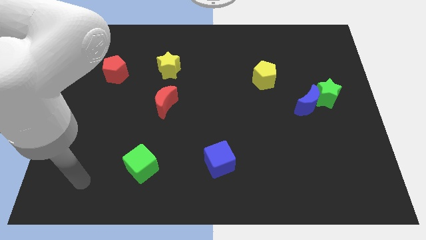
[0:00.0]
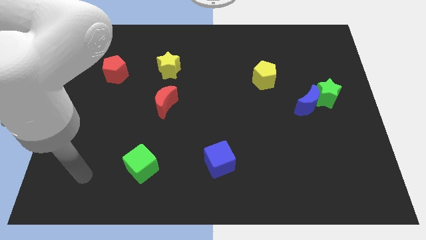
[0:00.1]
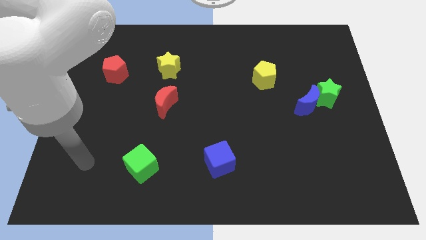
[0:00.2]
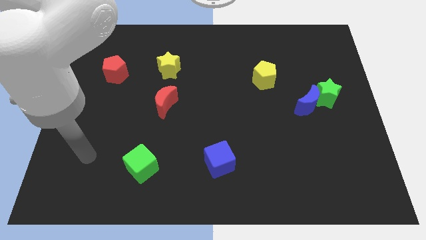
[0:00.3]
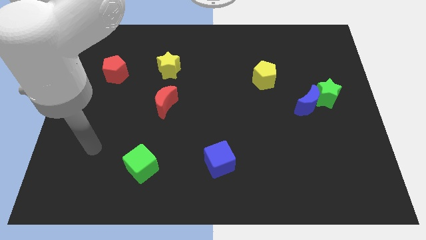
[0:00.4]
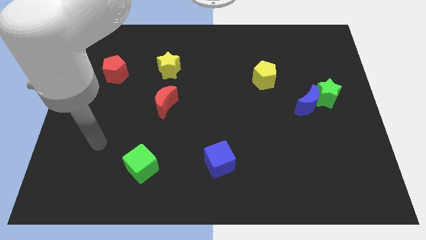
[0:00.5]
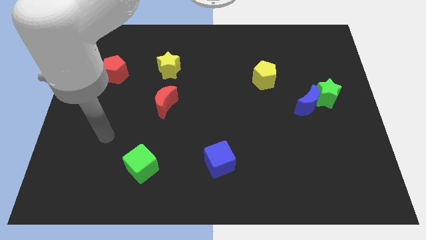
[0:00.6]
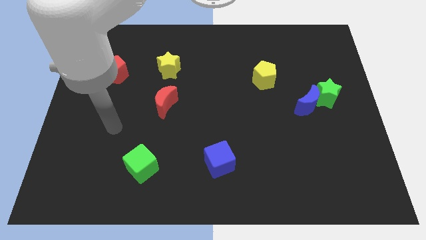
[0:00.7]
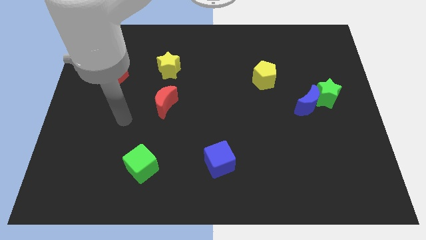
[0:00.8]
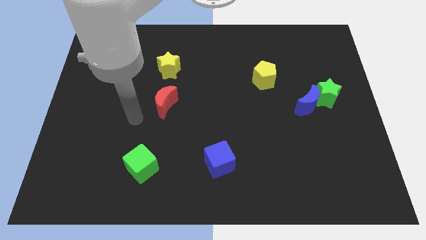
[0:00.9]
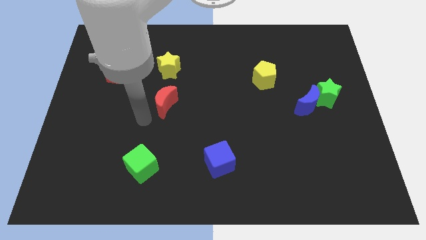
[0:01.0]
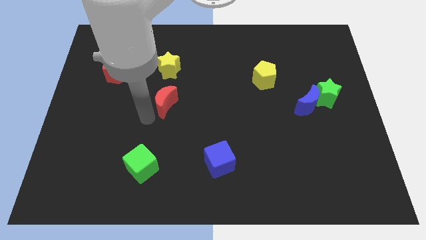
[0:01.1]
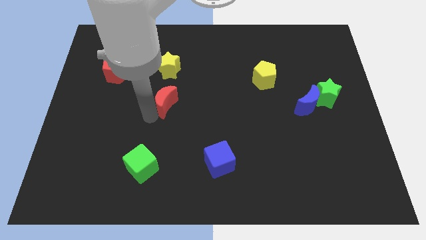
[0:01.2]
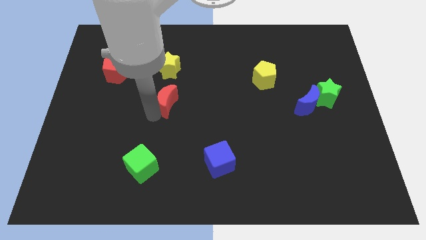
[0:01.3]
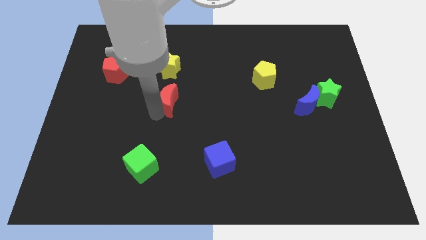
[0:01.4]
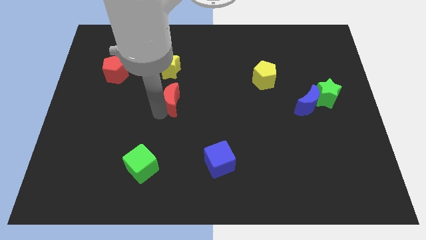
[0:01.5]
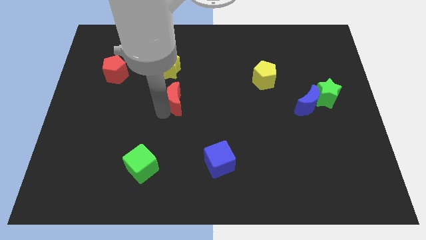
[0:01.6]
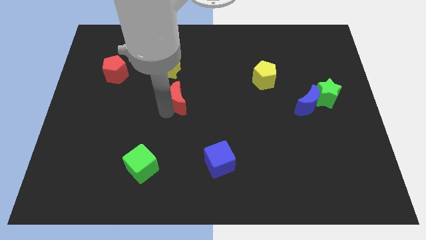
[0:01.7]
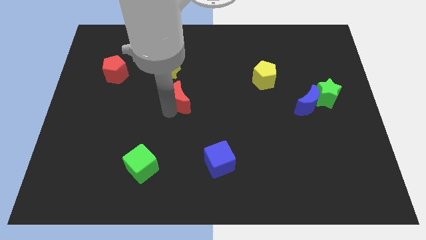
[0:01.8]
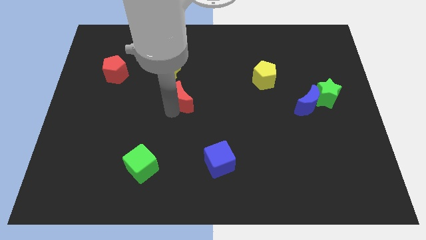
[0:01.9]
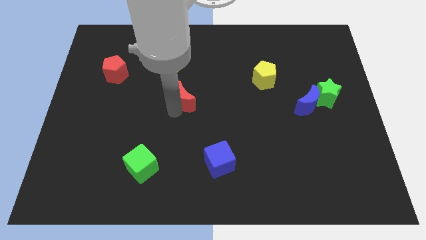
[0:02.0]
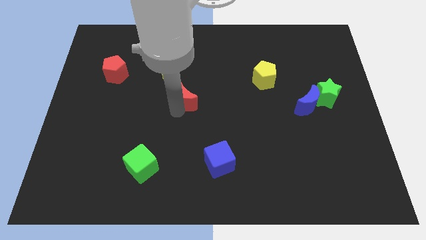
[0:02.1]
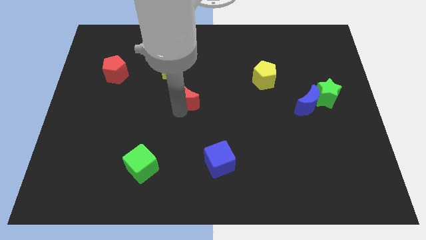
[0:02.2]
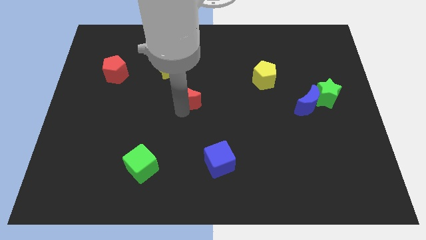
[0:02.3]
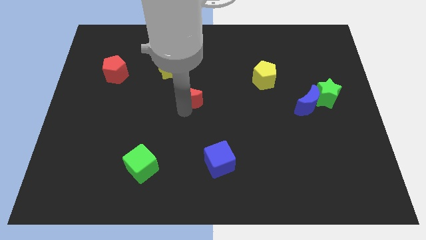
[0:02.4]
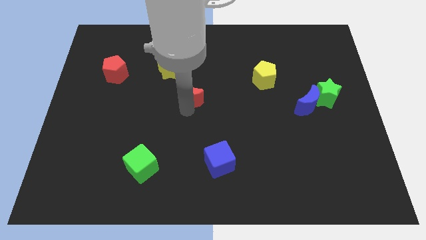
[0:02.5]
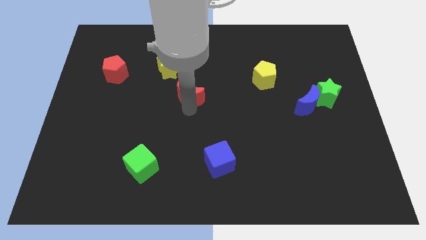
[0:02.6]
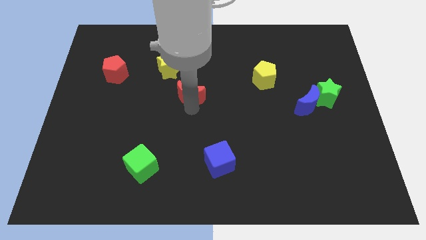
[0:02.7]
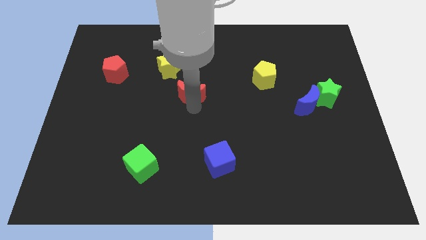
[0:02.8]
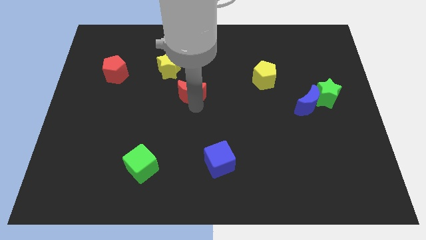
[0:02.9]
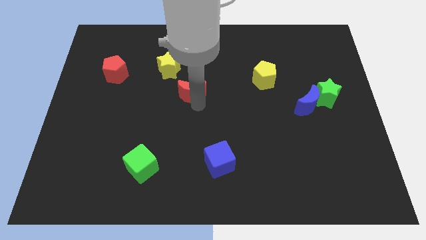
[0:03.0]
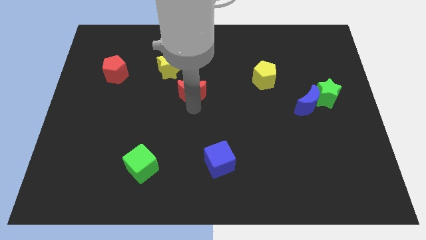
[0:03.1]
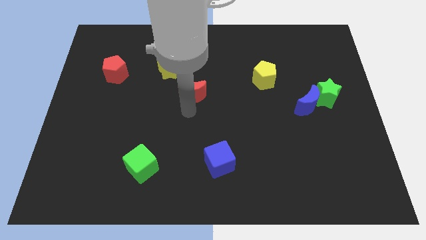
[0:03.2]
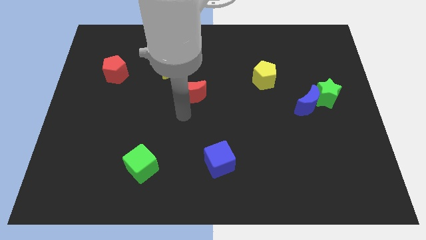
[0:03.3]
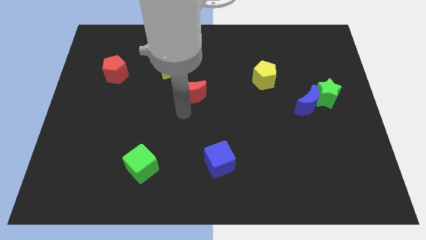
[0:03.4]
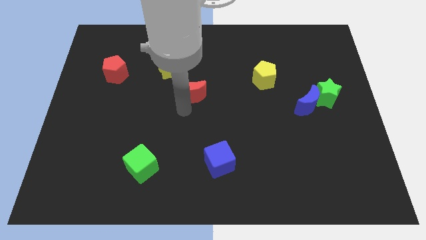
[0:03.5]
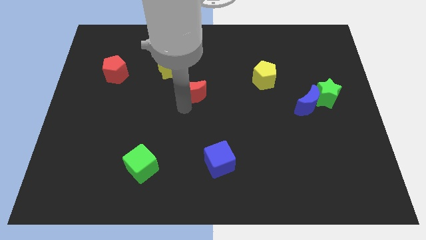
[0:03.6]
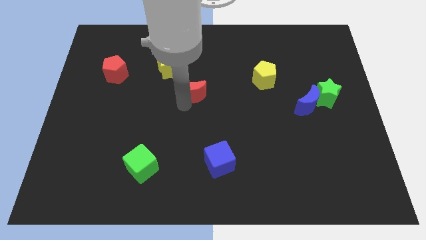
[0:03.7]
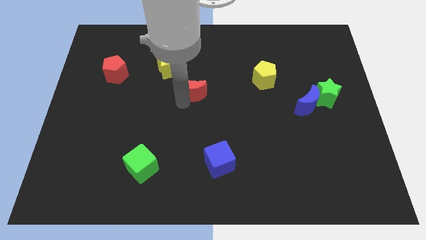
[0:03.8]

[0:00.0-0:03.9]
slightly push the red moon diagonally upwards and to the right

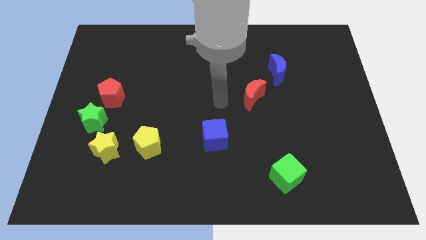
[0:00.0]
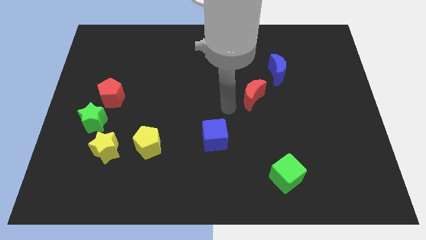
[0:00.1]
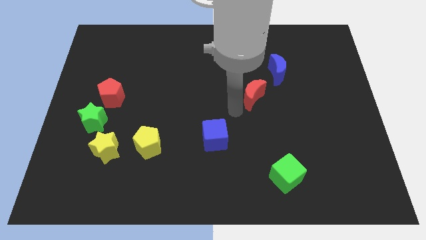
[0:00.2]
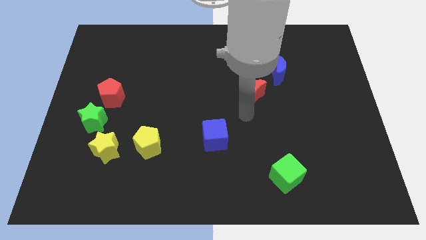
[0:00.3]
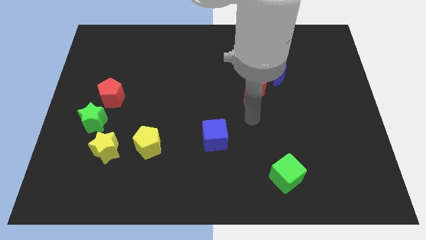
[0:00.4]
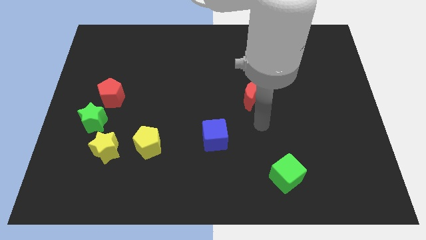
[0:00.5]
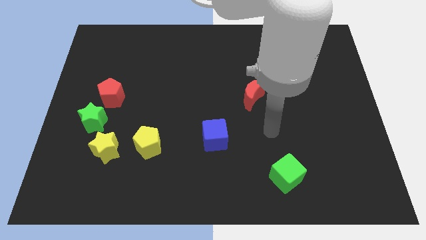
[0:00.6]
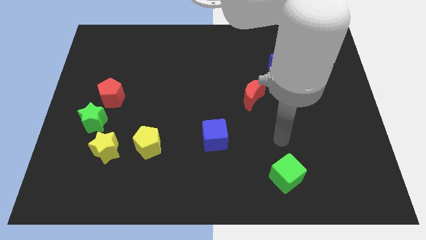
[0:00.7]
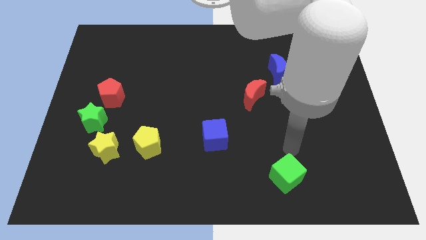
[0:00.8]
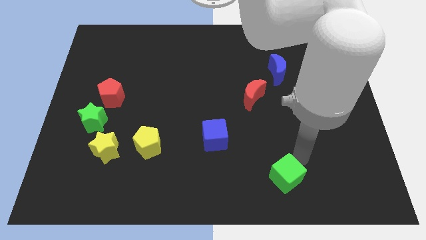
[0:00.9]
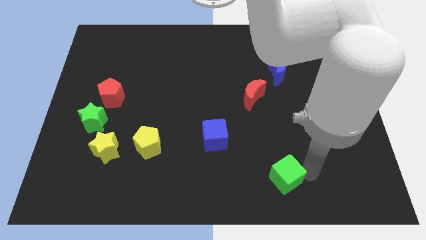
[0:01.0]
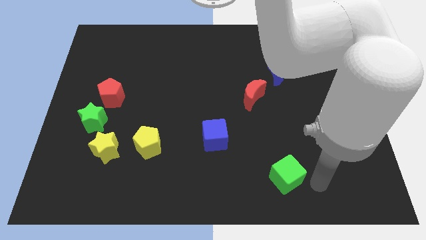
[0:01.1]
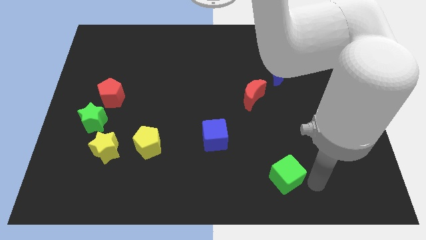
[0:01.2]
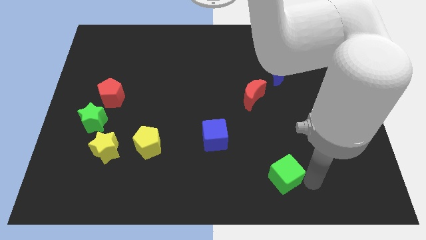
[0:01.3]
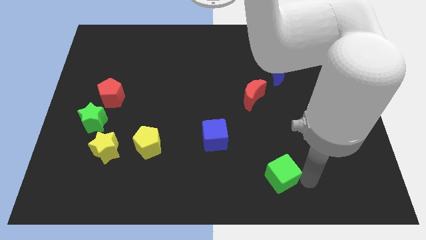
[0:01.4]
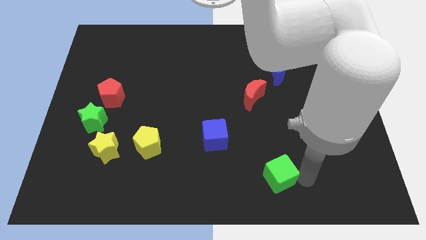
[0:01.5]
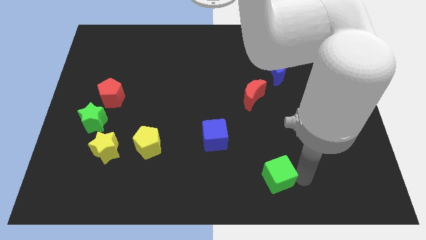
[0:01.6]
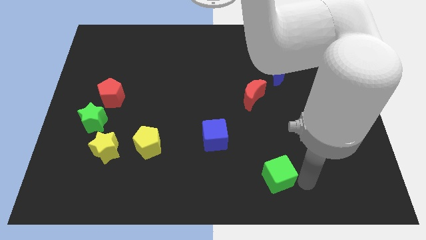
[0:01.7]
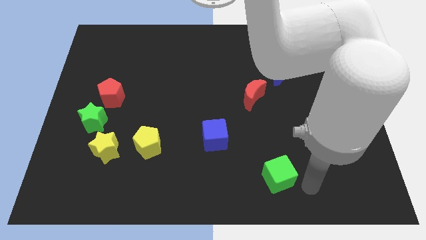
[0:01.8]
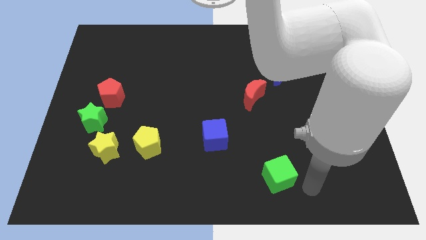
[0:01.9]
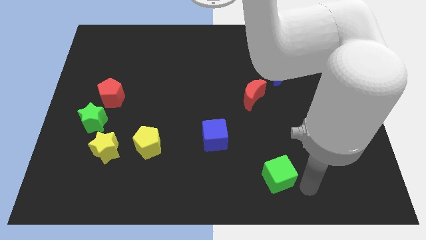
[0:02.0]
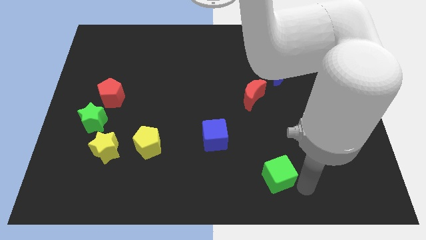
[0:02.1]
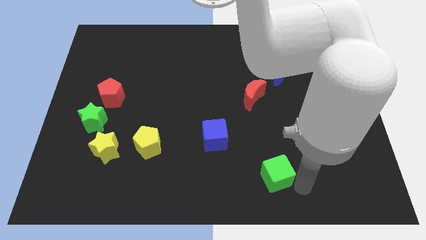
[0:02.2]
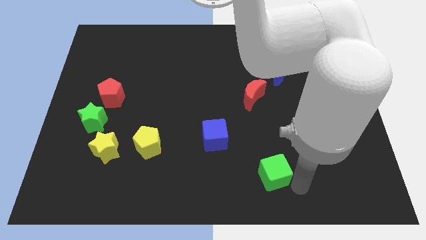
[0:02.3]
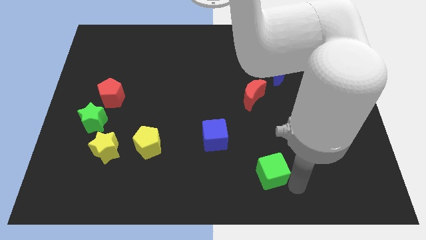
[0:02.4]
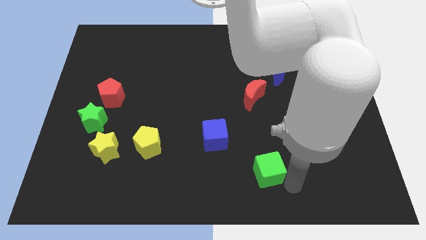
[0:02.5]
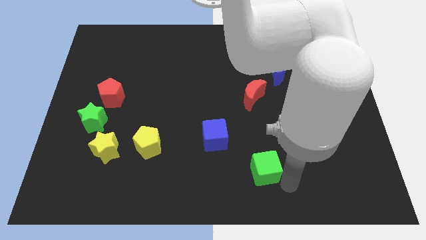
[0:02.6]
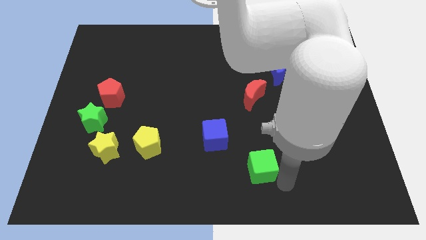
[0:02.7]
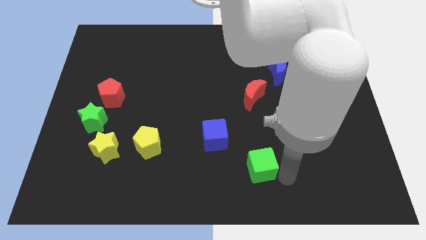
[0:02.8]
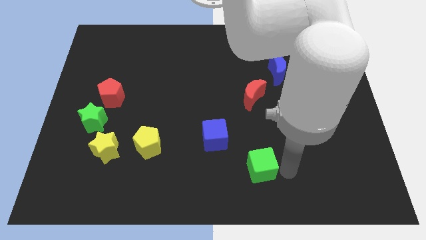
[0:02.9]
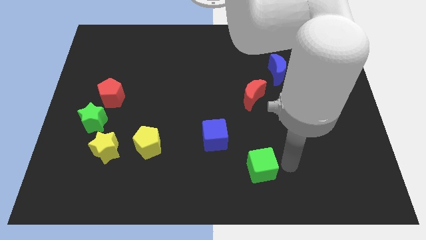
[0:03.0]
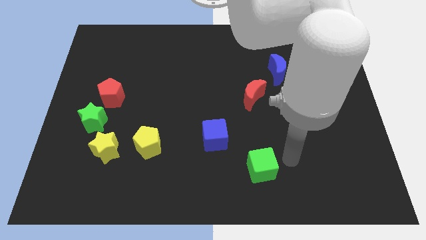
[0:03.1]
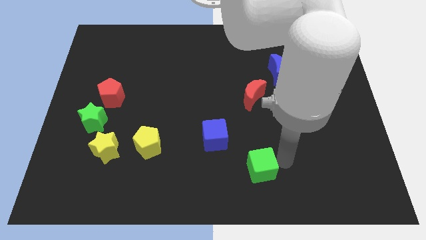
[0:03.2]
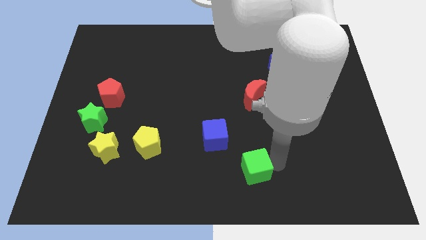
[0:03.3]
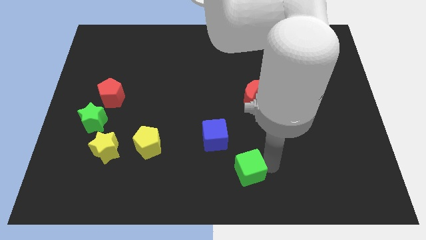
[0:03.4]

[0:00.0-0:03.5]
slightly push the green cube to the left
